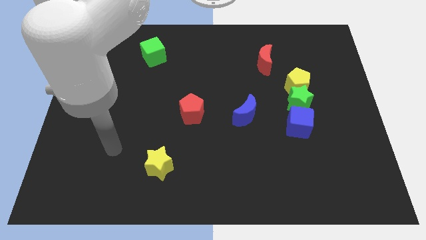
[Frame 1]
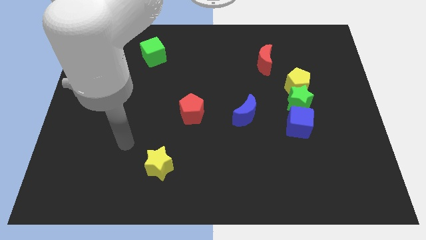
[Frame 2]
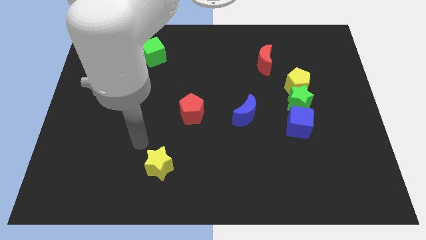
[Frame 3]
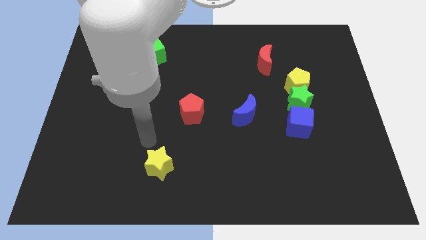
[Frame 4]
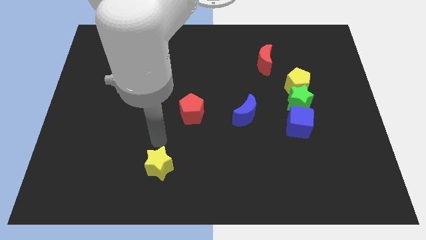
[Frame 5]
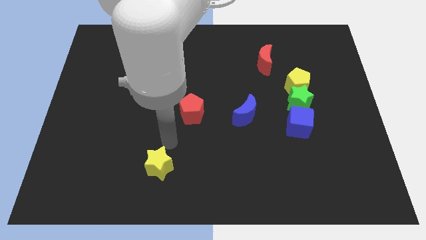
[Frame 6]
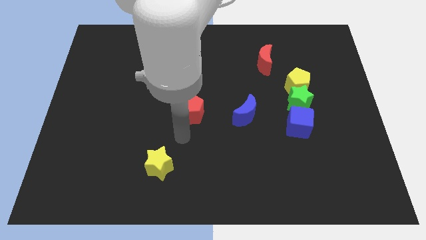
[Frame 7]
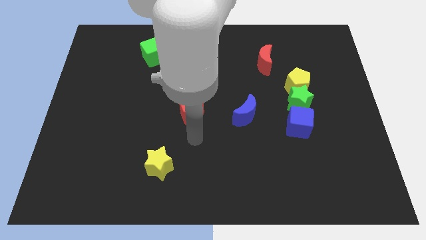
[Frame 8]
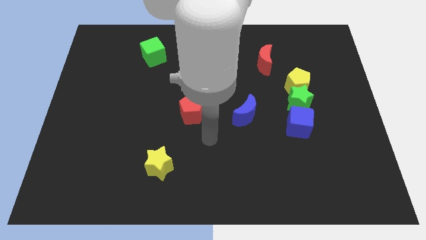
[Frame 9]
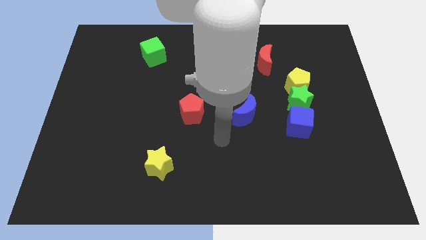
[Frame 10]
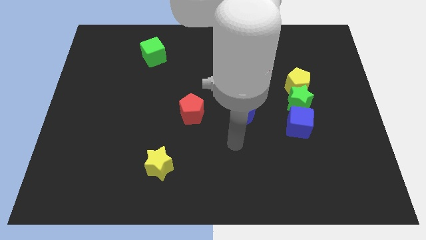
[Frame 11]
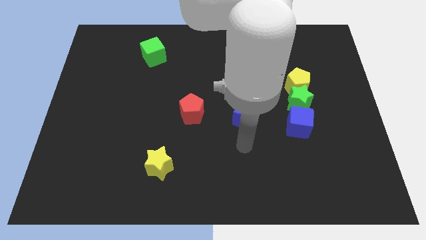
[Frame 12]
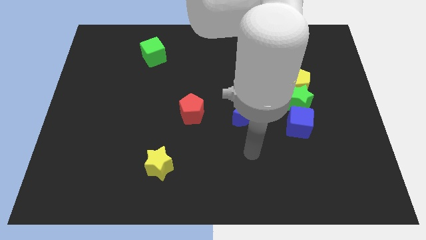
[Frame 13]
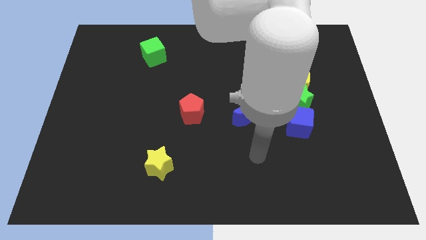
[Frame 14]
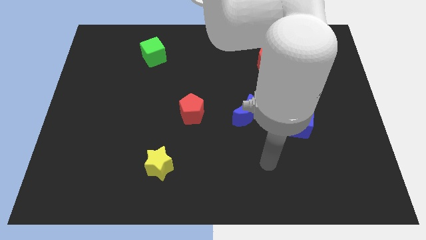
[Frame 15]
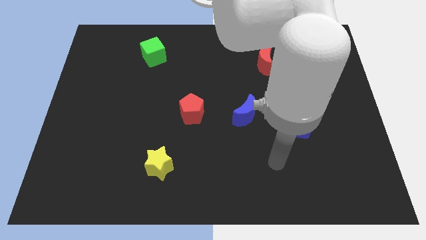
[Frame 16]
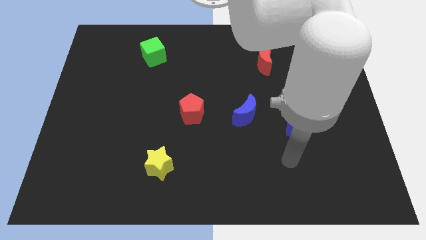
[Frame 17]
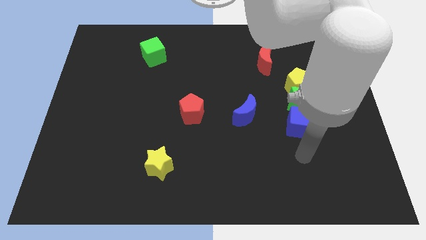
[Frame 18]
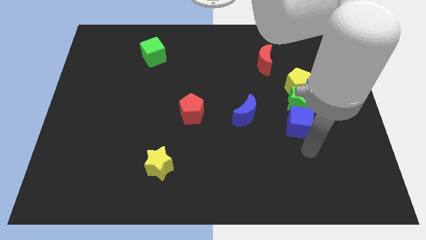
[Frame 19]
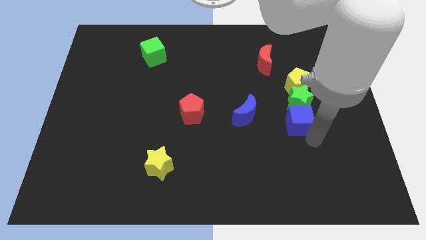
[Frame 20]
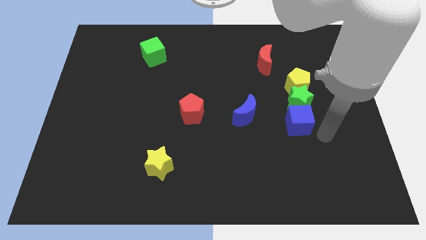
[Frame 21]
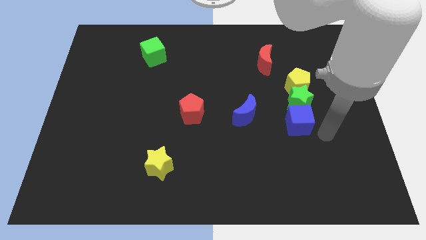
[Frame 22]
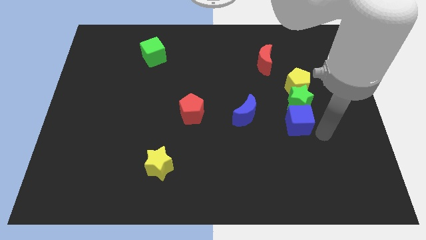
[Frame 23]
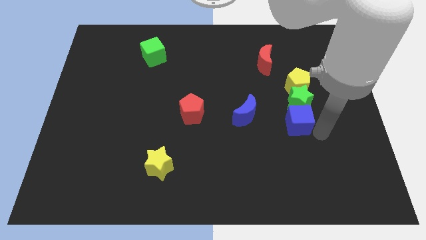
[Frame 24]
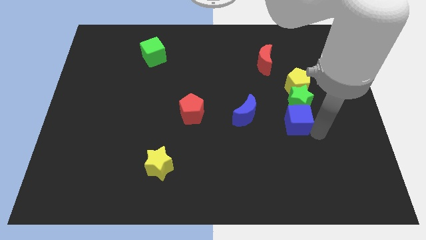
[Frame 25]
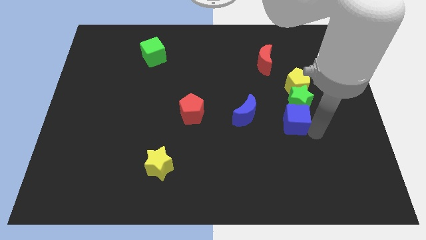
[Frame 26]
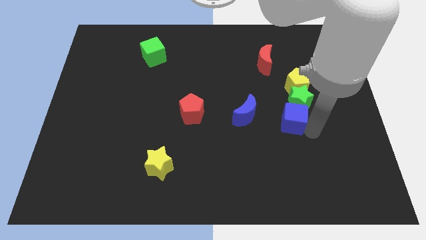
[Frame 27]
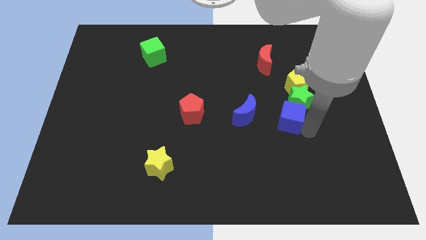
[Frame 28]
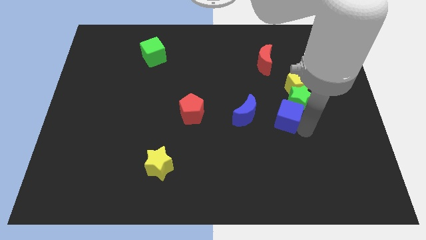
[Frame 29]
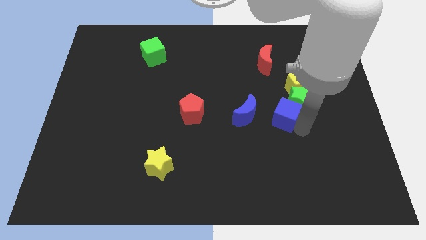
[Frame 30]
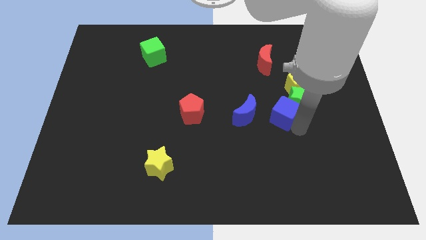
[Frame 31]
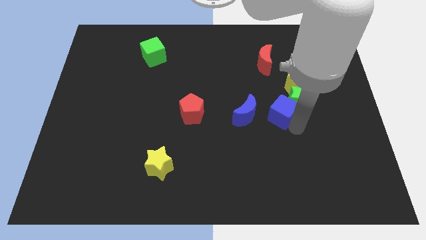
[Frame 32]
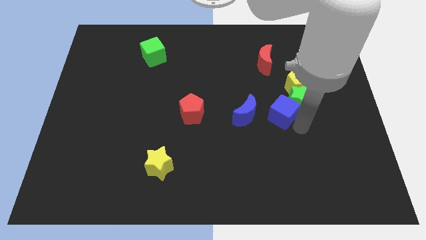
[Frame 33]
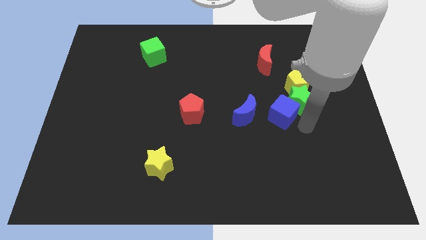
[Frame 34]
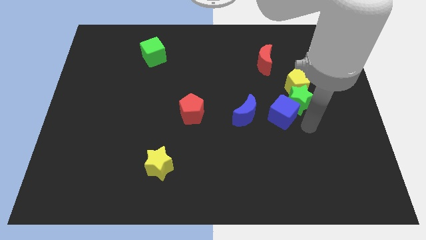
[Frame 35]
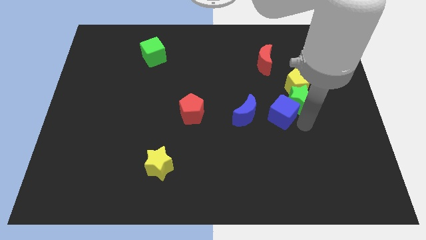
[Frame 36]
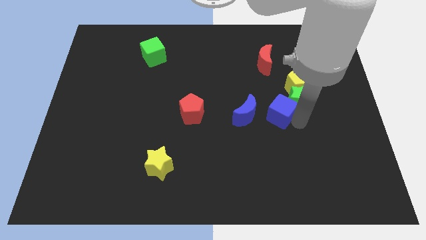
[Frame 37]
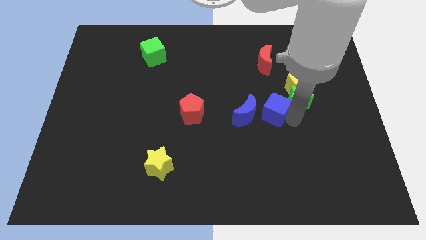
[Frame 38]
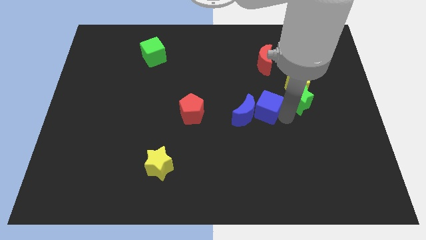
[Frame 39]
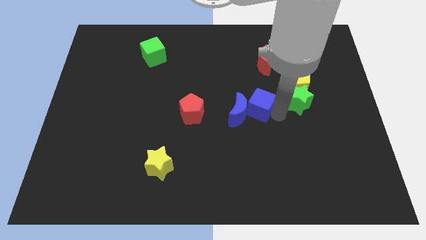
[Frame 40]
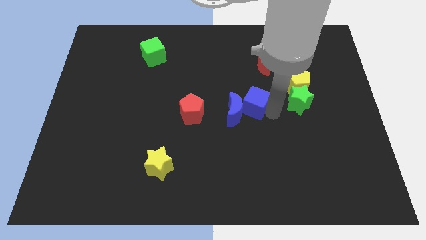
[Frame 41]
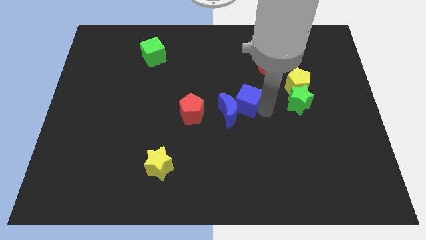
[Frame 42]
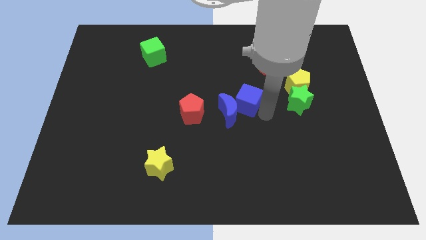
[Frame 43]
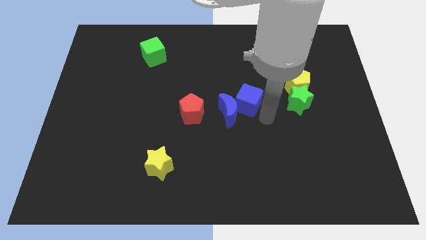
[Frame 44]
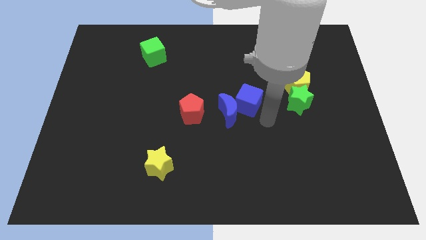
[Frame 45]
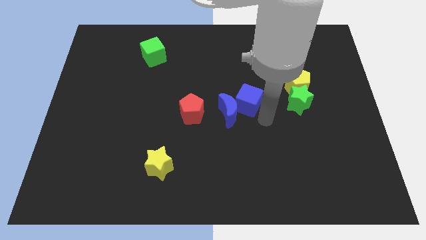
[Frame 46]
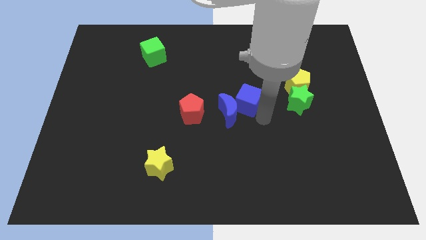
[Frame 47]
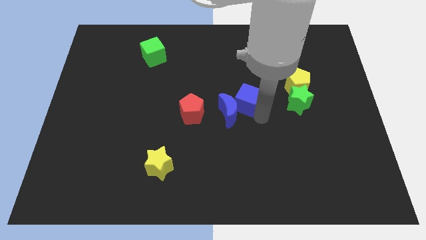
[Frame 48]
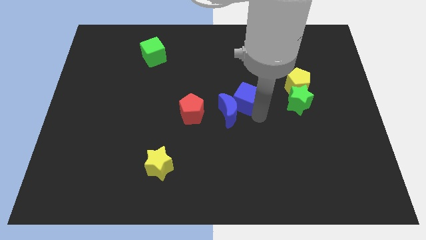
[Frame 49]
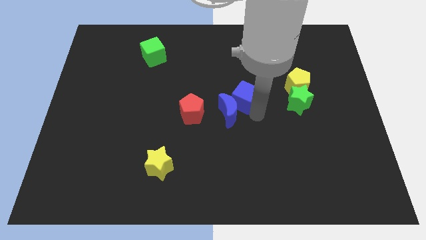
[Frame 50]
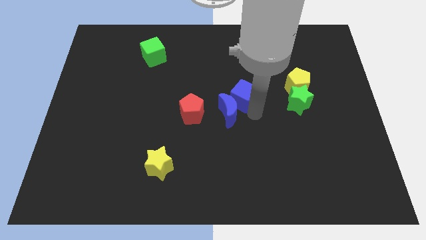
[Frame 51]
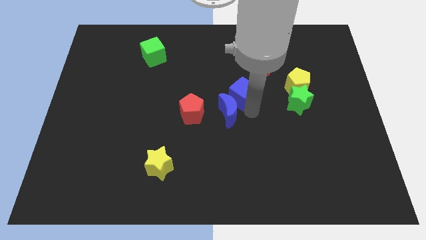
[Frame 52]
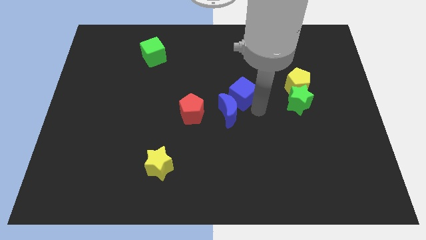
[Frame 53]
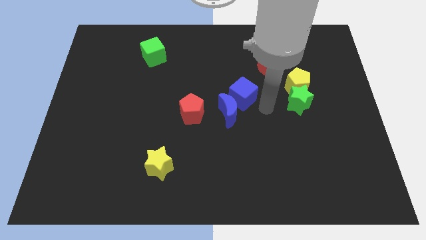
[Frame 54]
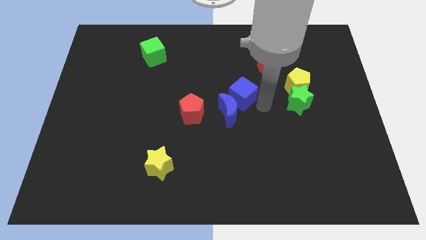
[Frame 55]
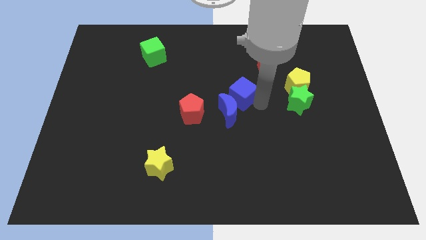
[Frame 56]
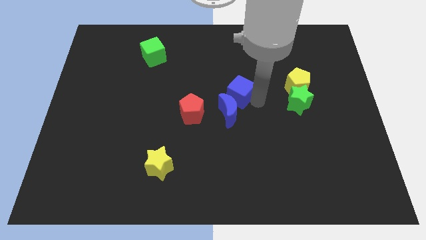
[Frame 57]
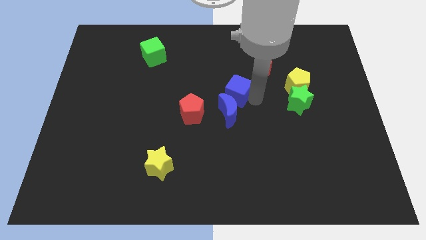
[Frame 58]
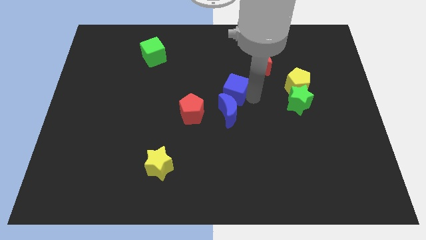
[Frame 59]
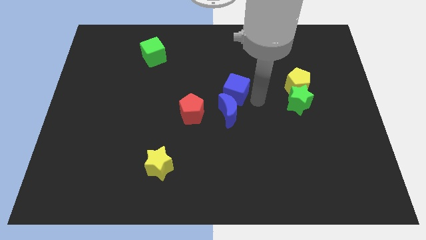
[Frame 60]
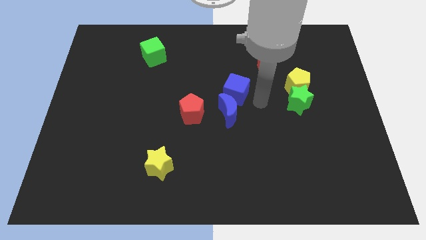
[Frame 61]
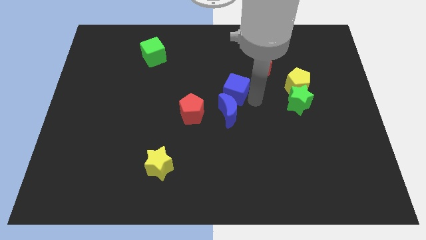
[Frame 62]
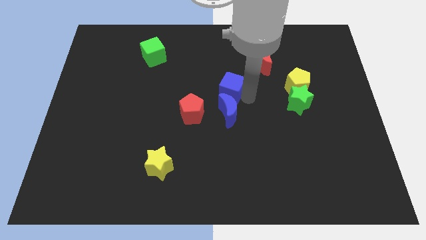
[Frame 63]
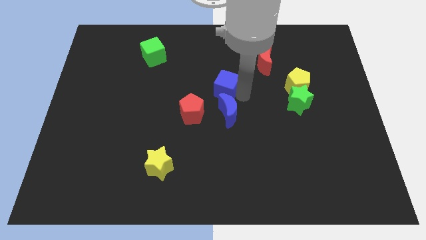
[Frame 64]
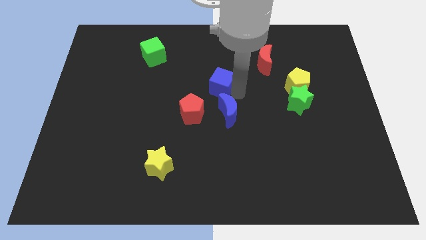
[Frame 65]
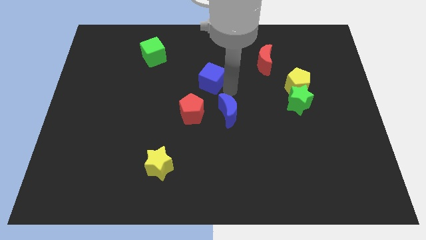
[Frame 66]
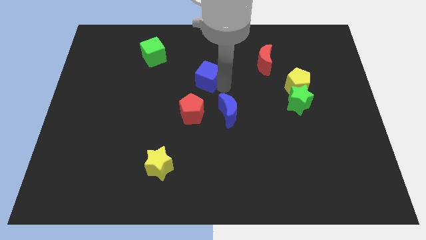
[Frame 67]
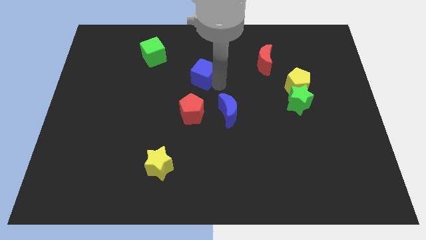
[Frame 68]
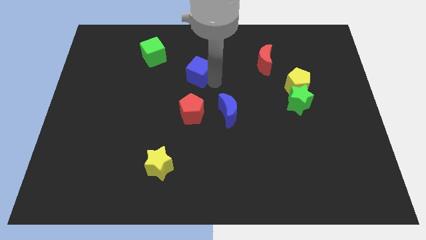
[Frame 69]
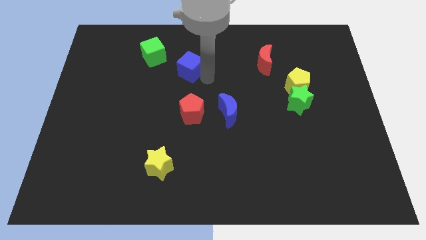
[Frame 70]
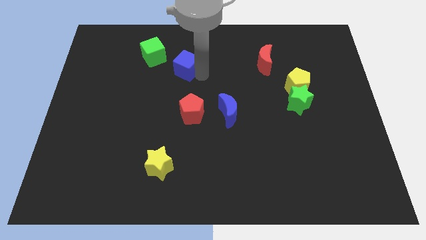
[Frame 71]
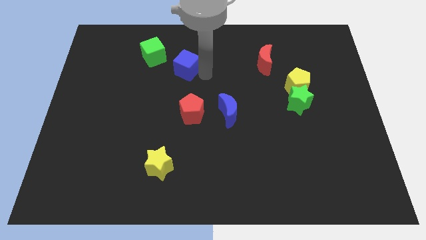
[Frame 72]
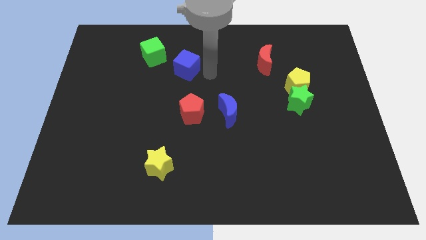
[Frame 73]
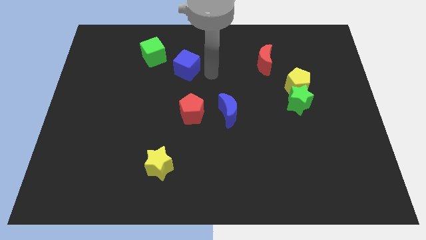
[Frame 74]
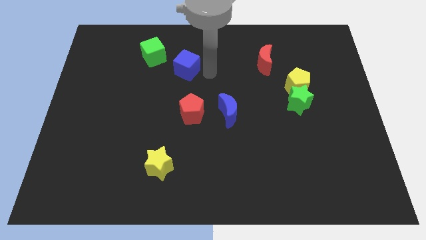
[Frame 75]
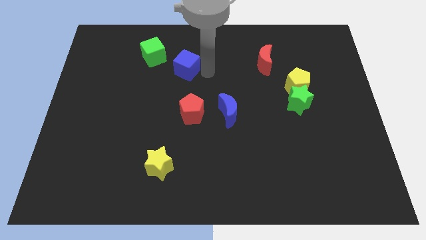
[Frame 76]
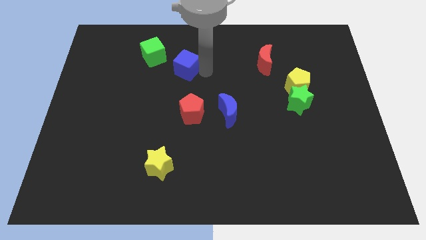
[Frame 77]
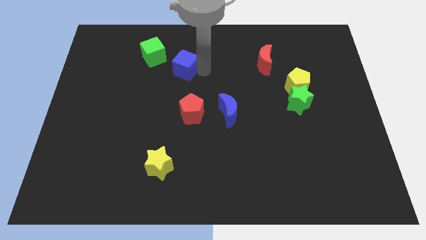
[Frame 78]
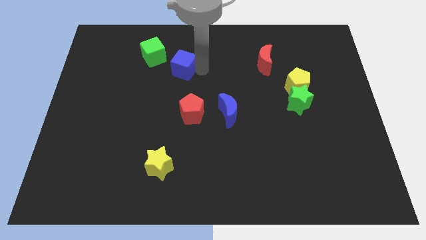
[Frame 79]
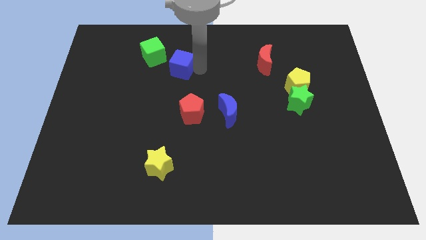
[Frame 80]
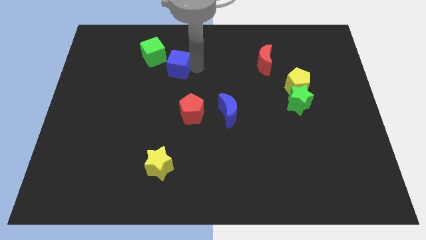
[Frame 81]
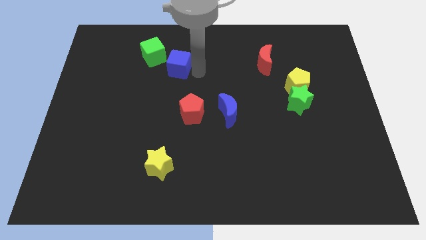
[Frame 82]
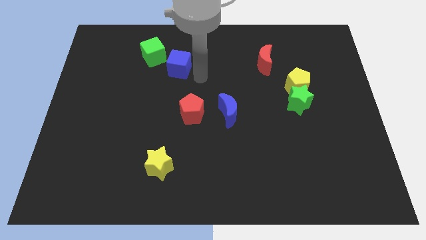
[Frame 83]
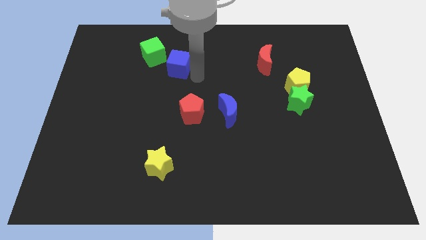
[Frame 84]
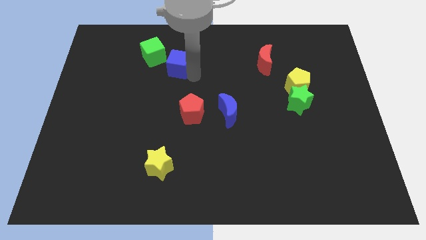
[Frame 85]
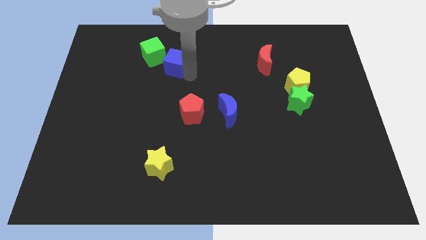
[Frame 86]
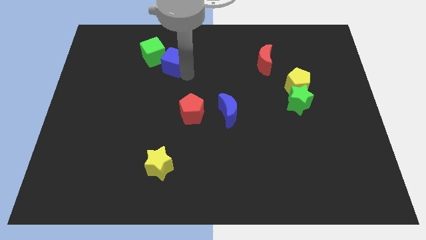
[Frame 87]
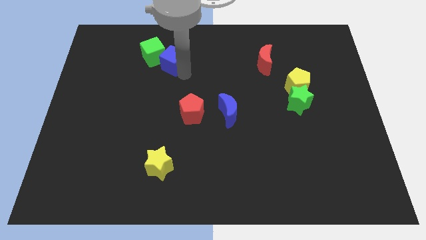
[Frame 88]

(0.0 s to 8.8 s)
slide the blue cube towards the green cube
